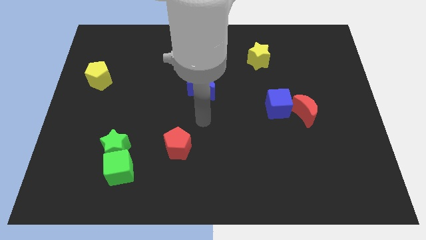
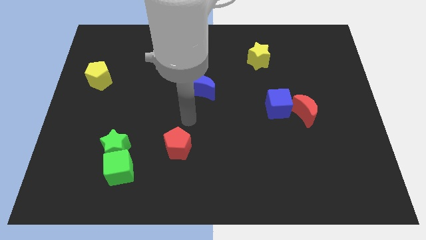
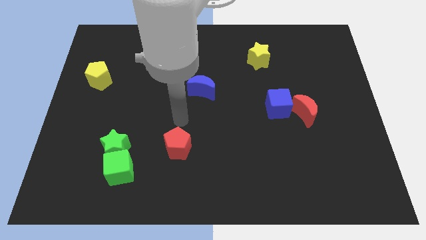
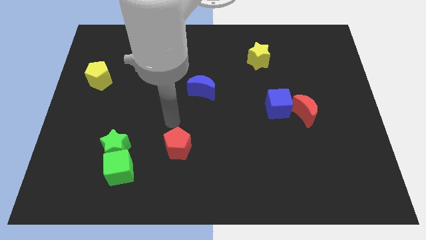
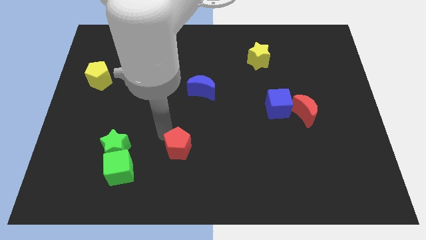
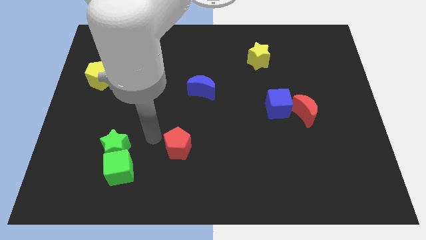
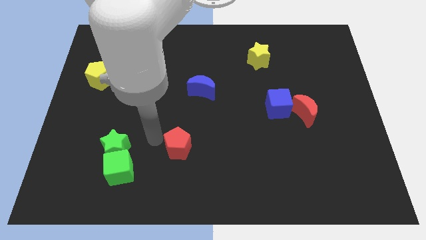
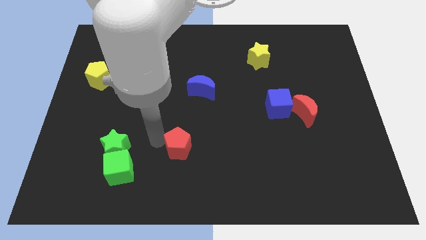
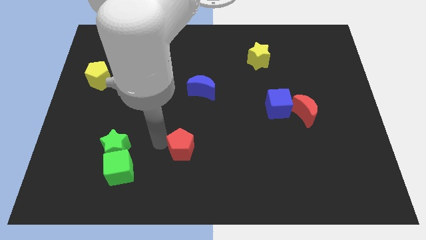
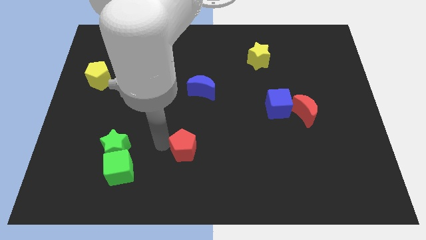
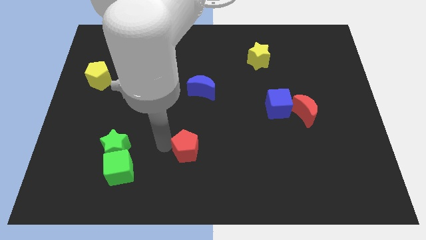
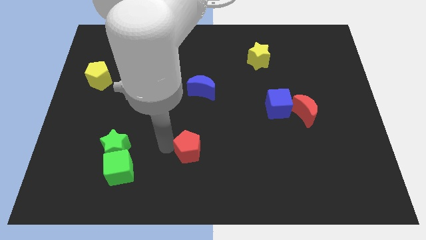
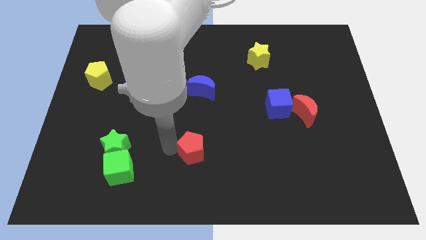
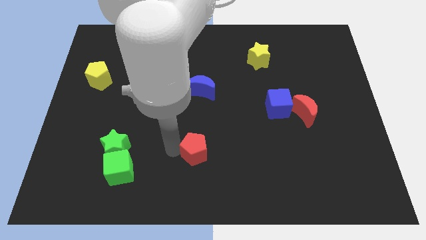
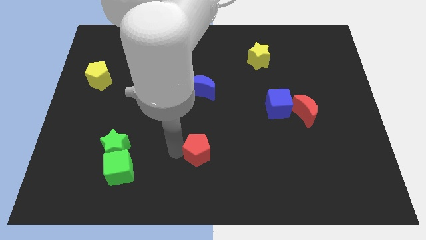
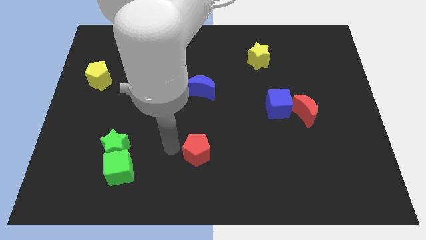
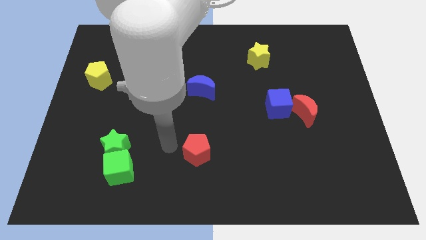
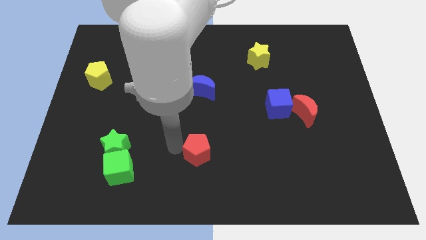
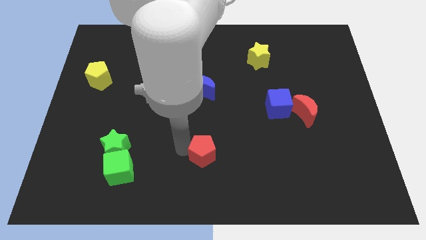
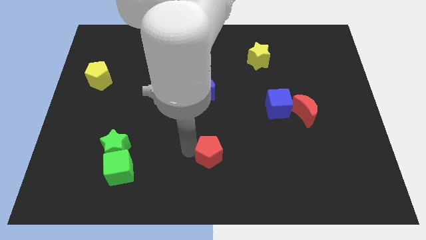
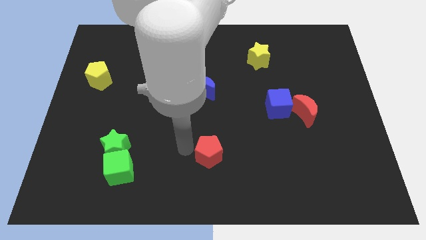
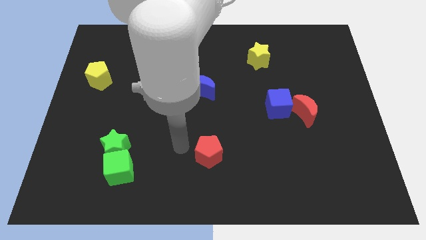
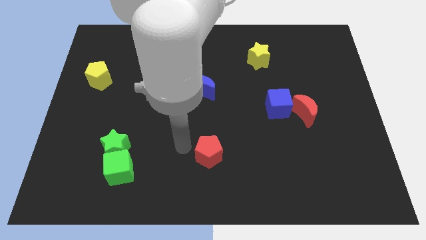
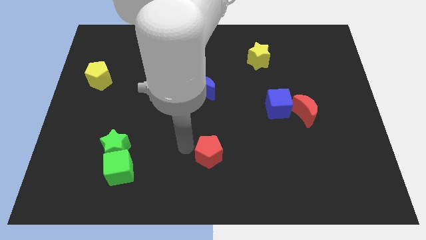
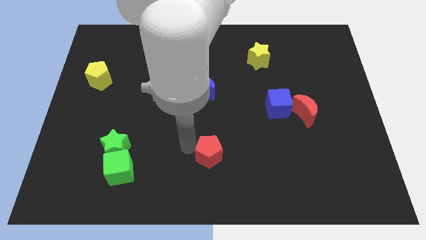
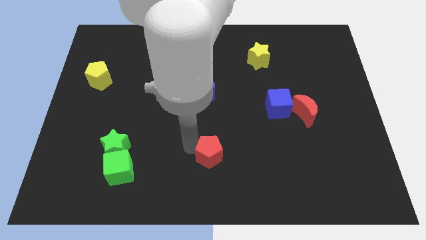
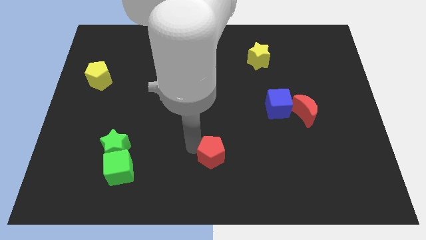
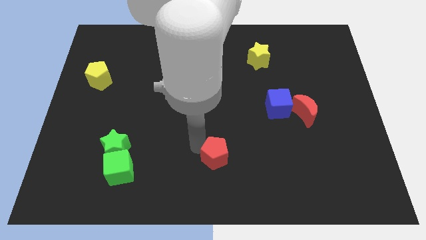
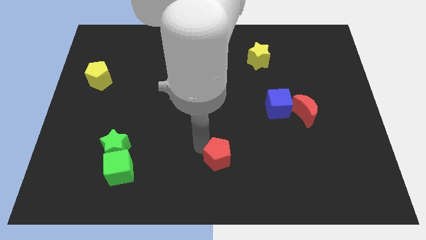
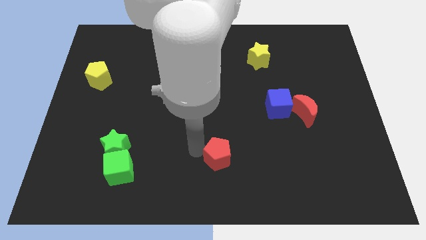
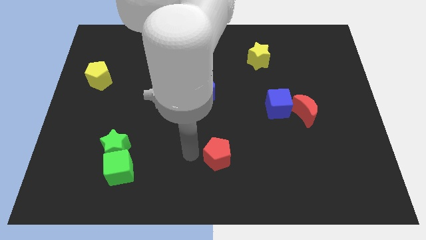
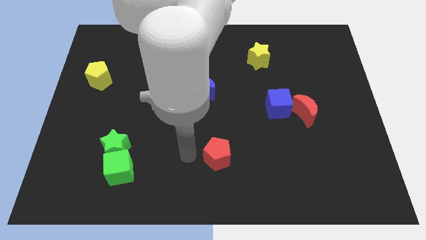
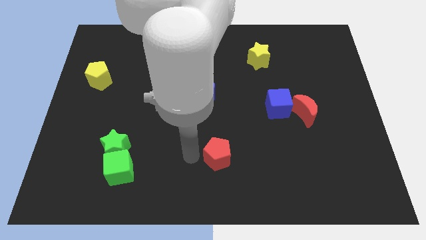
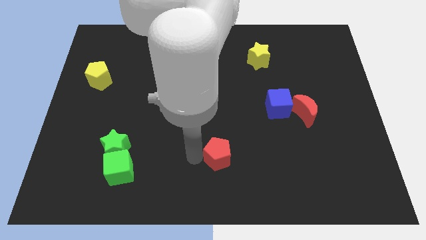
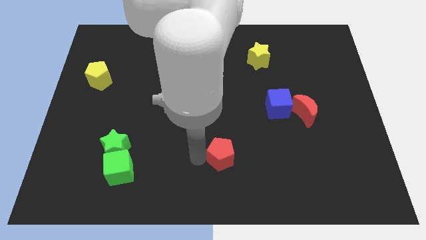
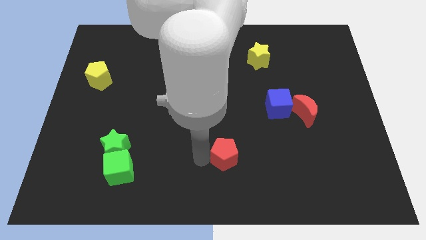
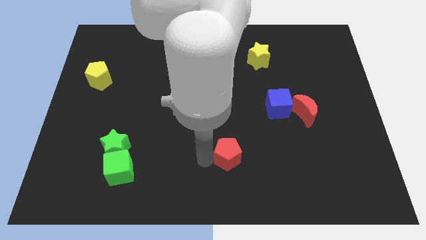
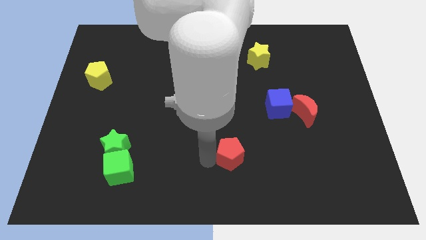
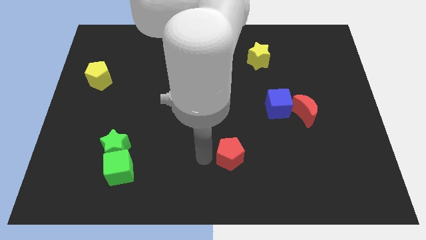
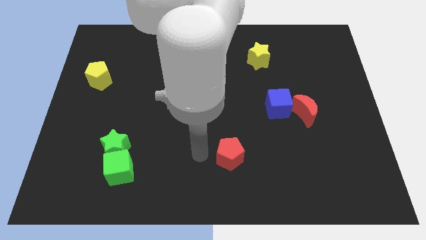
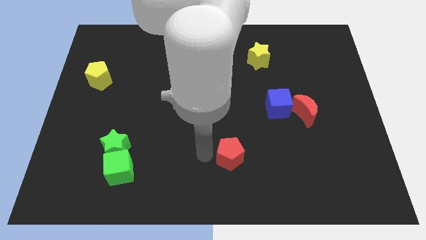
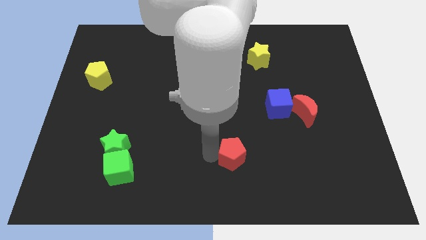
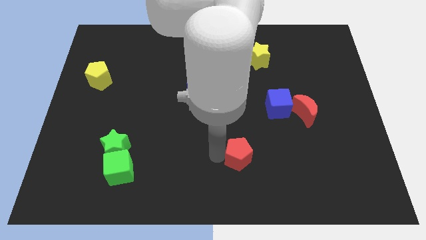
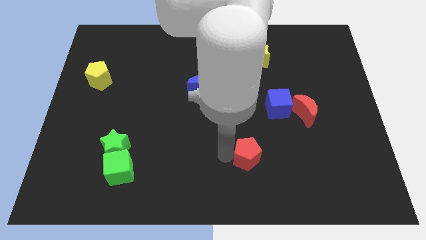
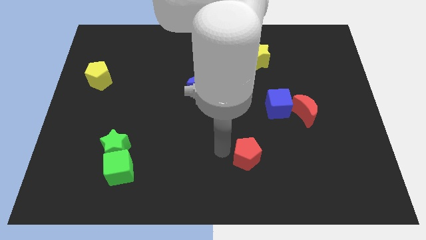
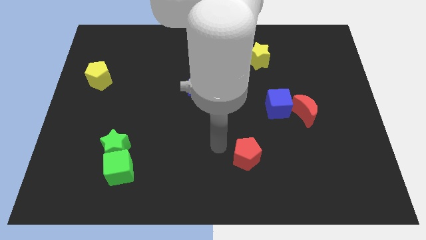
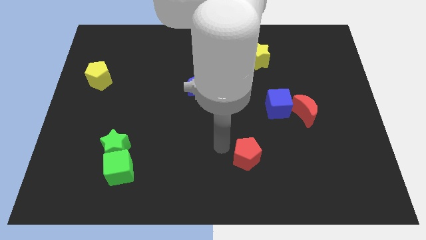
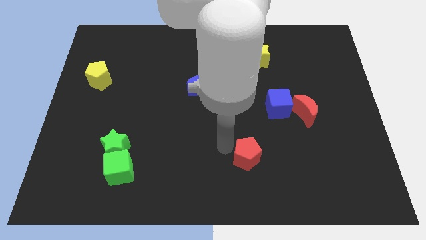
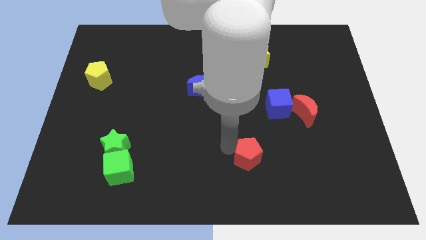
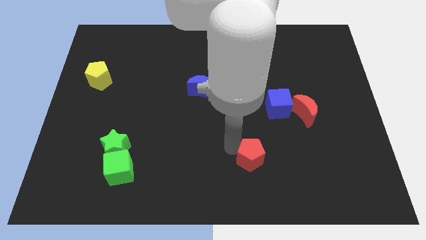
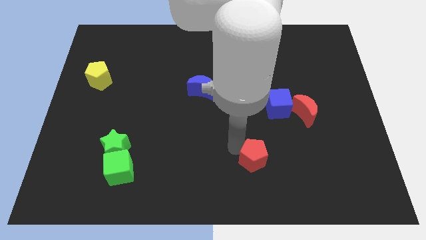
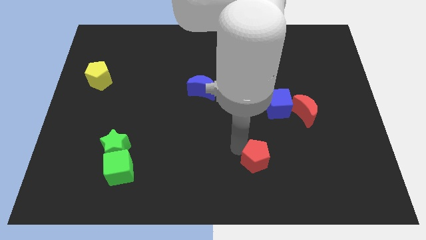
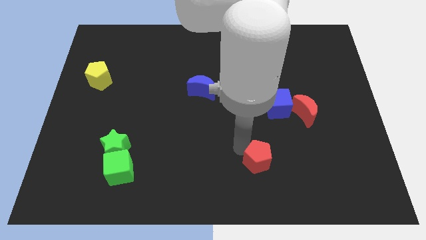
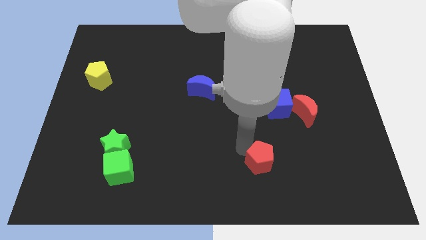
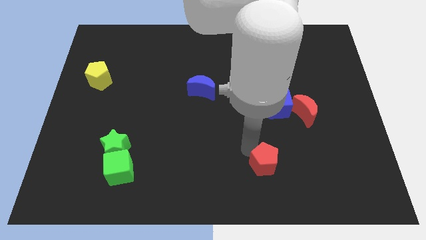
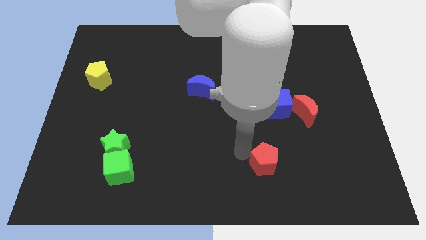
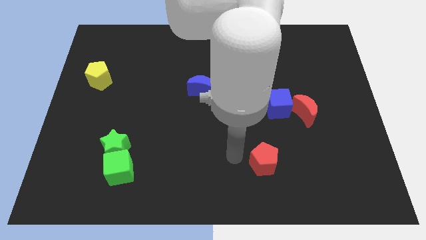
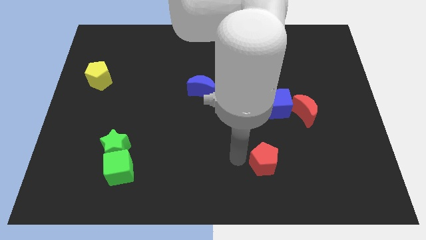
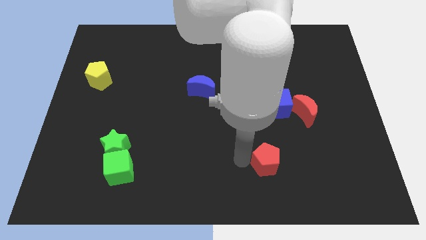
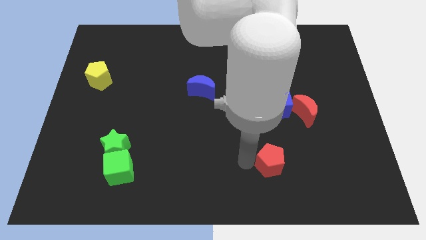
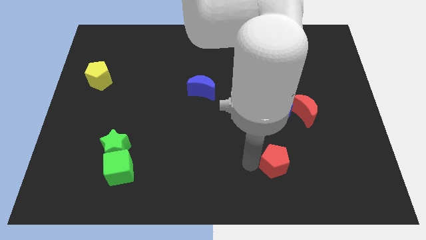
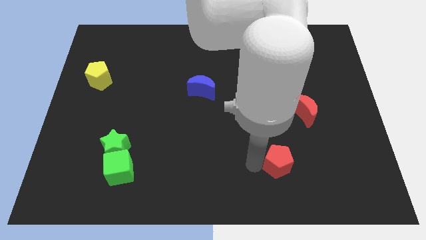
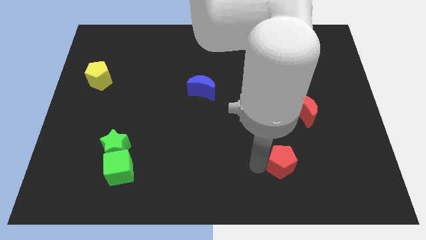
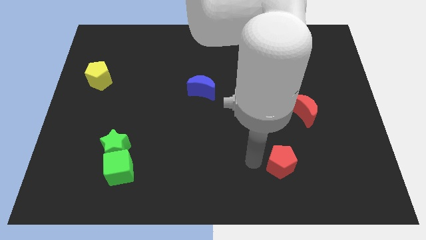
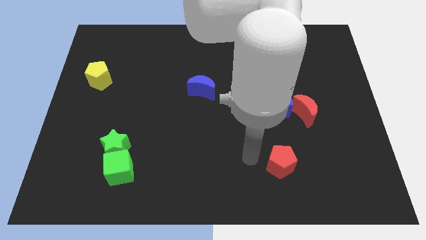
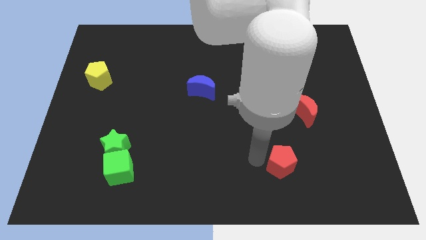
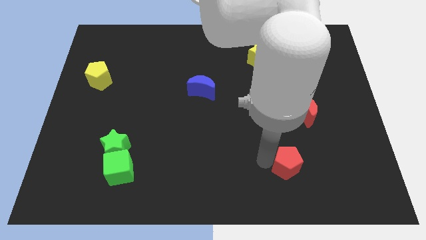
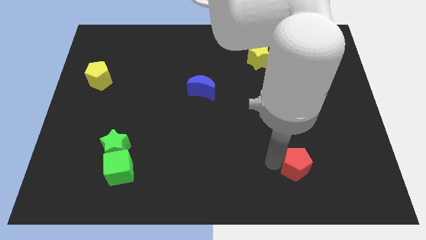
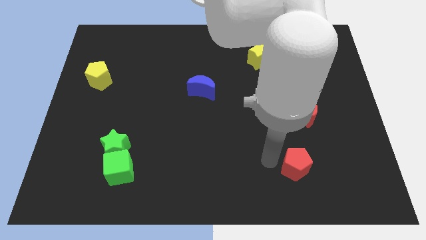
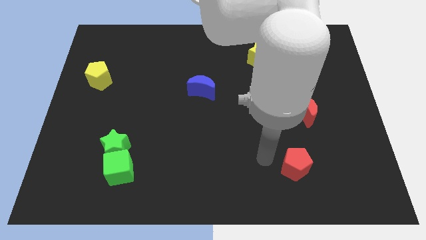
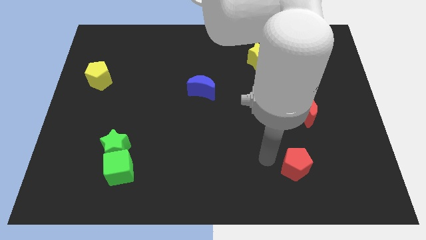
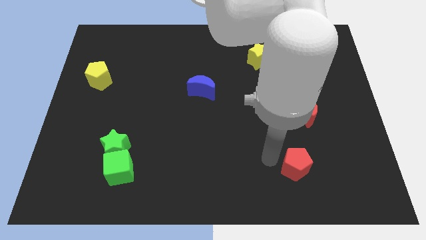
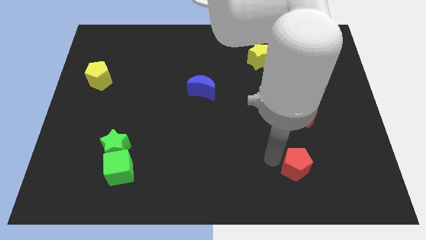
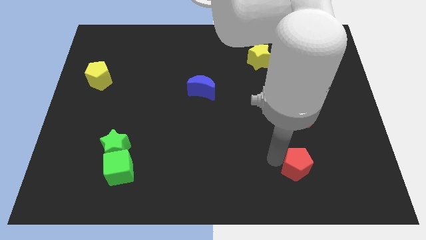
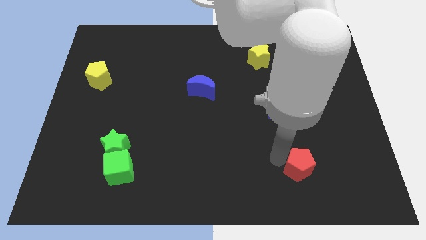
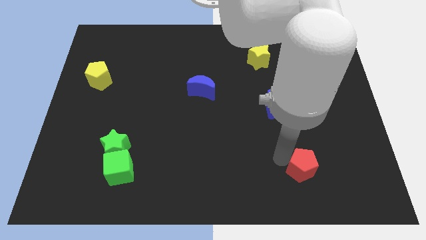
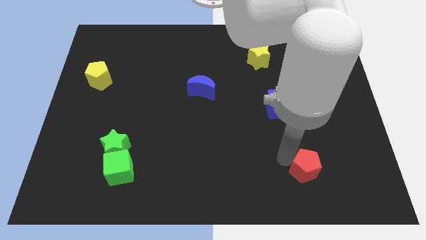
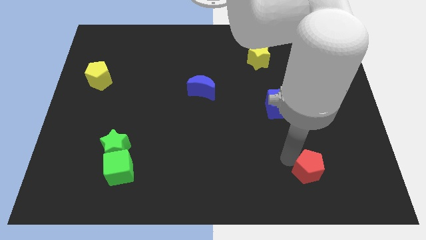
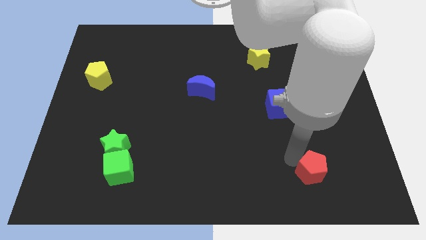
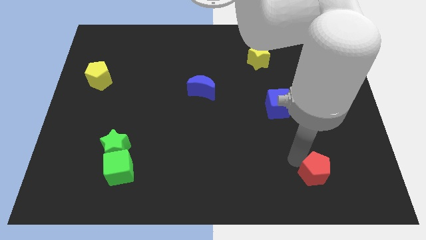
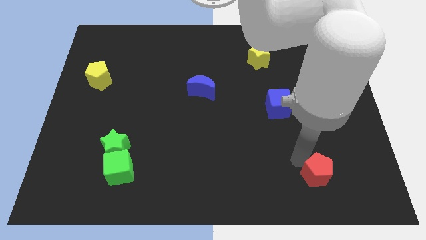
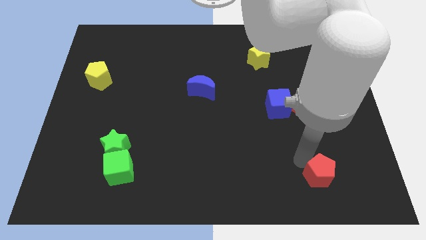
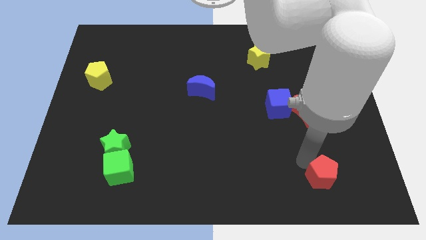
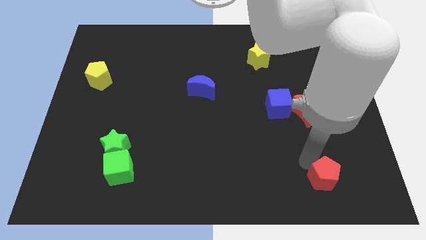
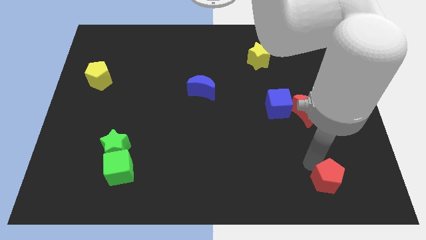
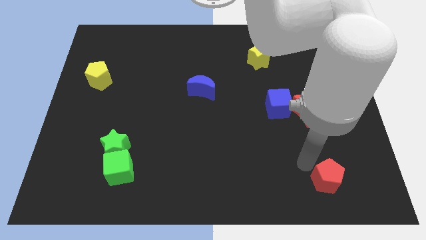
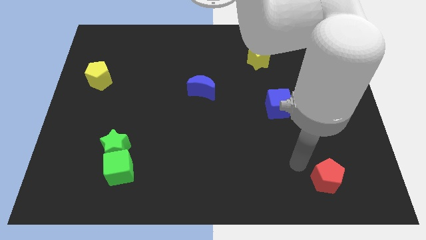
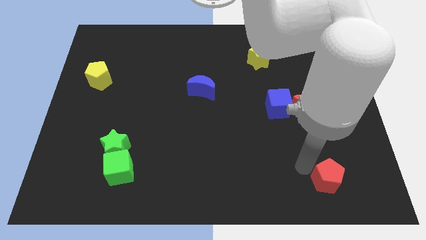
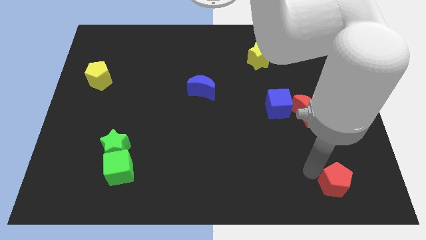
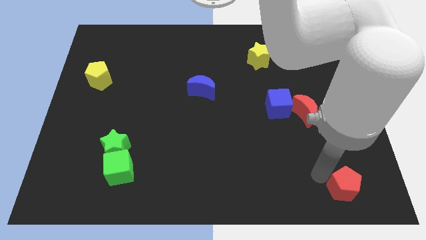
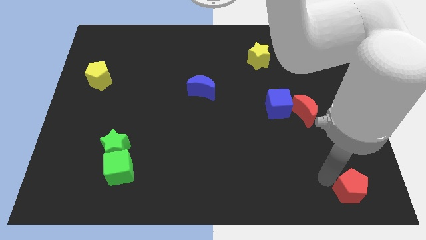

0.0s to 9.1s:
slide the red pentagon to the bottom right corner
